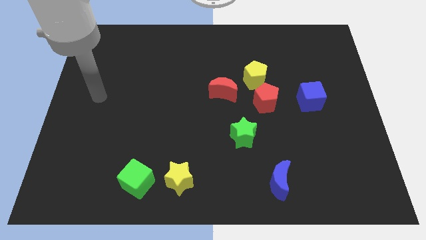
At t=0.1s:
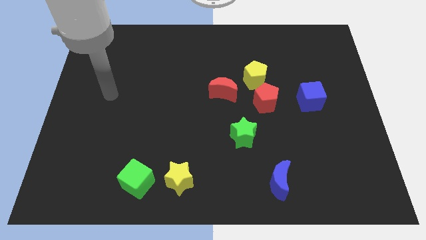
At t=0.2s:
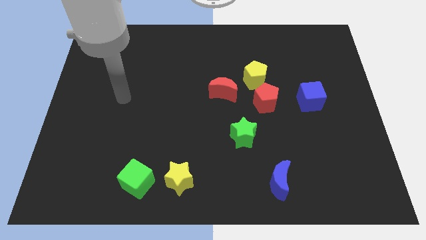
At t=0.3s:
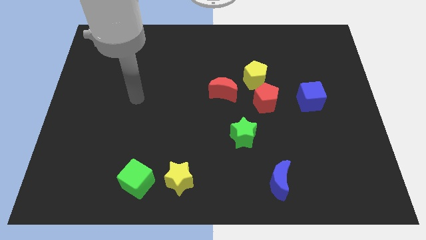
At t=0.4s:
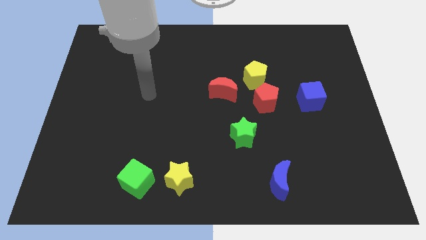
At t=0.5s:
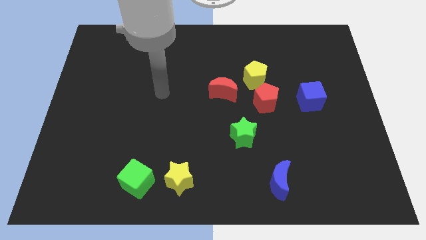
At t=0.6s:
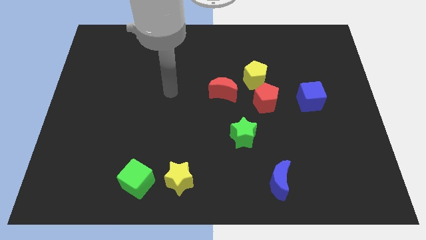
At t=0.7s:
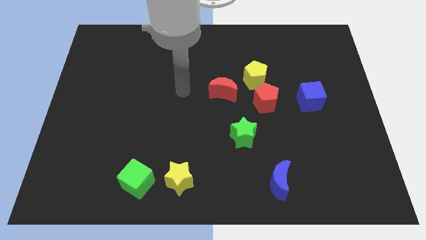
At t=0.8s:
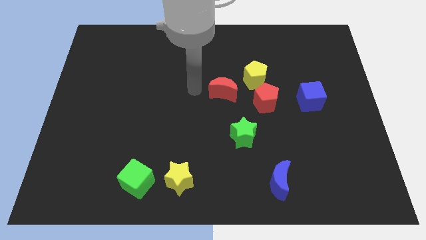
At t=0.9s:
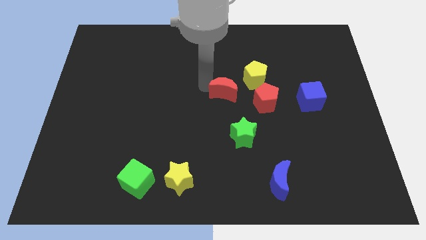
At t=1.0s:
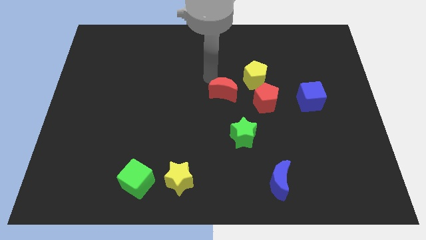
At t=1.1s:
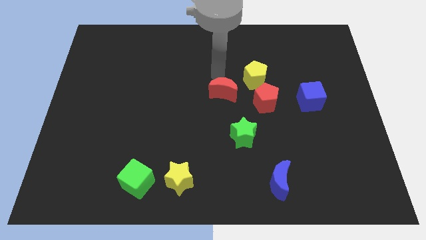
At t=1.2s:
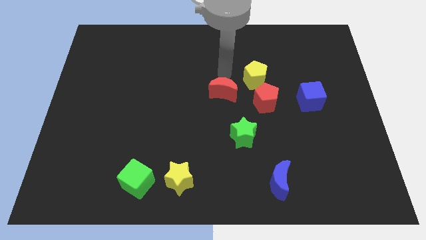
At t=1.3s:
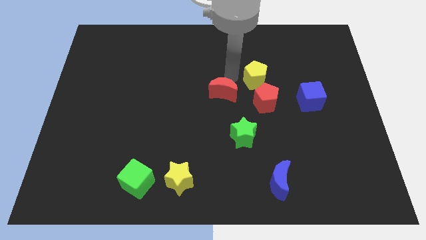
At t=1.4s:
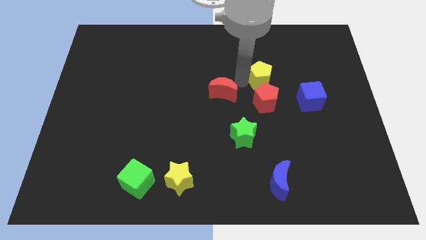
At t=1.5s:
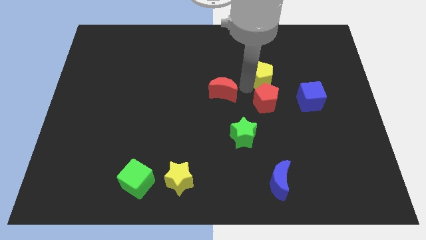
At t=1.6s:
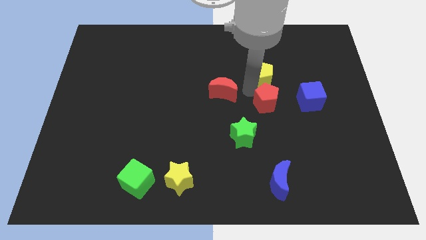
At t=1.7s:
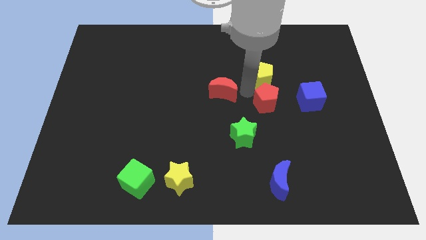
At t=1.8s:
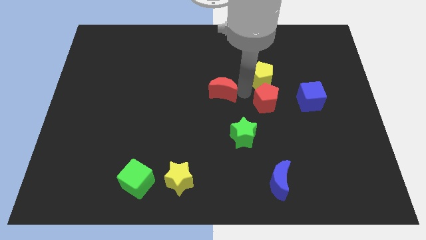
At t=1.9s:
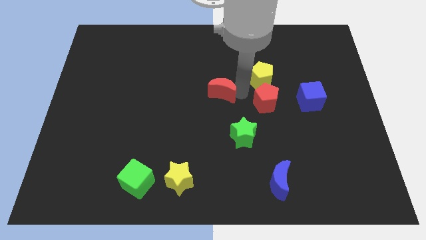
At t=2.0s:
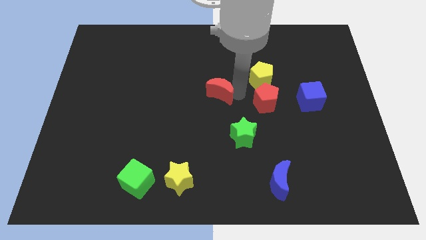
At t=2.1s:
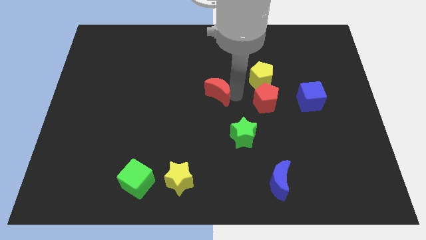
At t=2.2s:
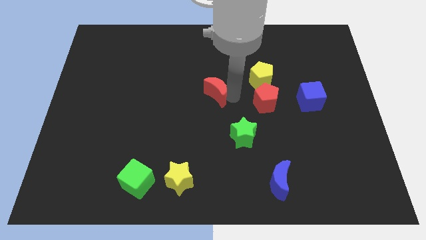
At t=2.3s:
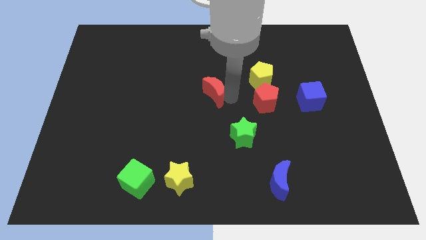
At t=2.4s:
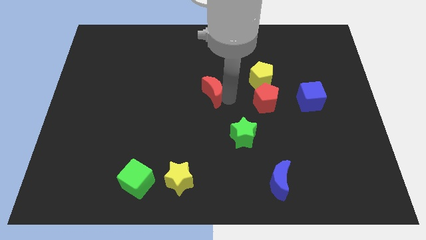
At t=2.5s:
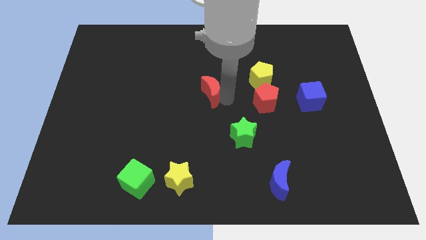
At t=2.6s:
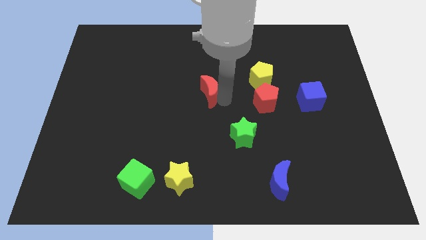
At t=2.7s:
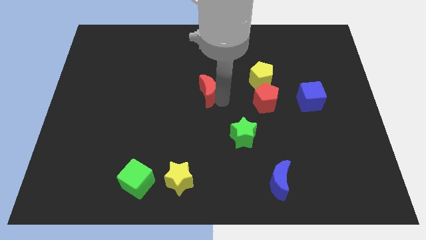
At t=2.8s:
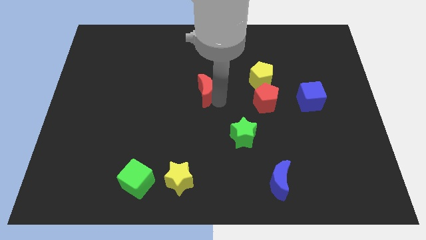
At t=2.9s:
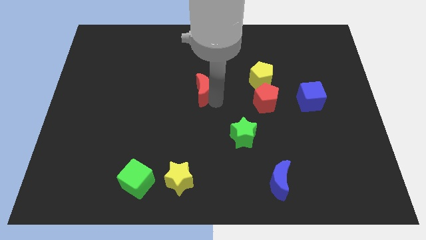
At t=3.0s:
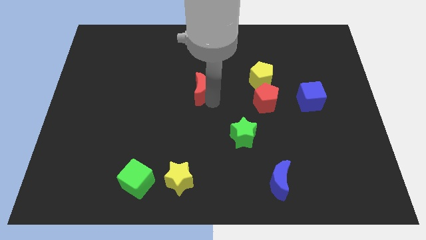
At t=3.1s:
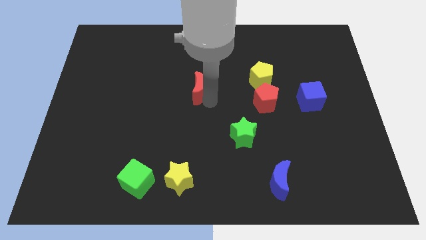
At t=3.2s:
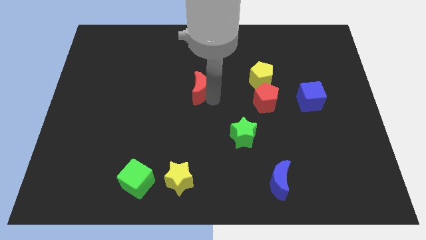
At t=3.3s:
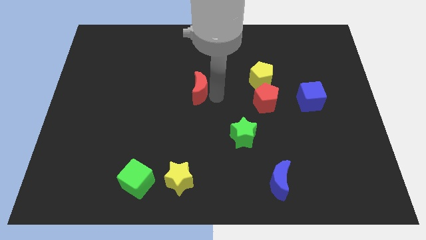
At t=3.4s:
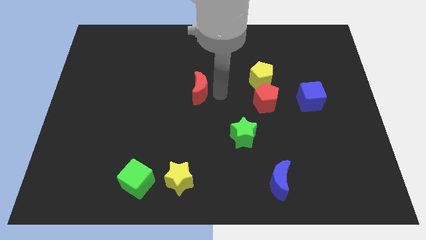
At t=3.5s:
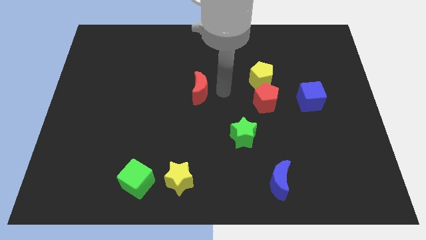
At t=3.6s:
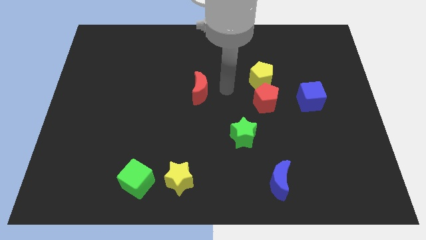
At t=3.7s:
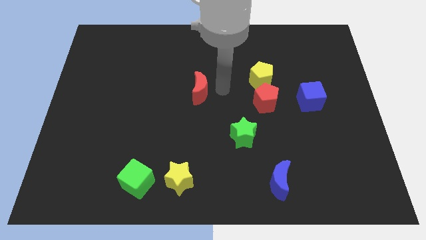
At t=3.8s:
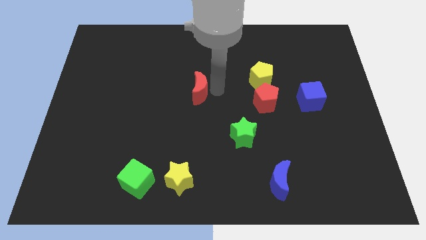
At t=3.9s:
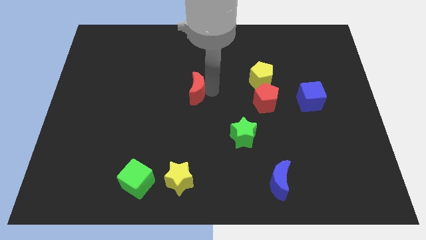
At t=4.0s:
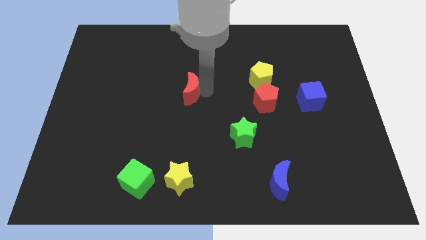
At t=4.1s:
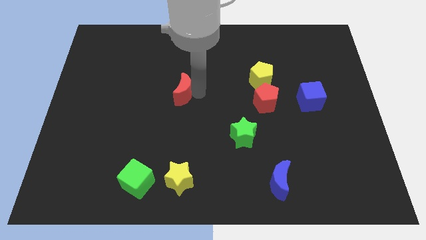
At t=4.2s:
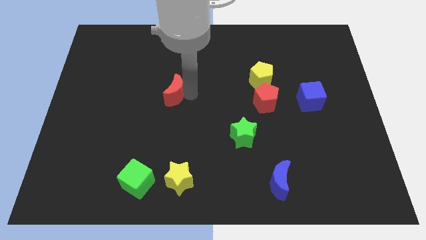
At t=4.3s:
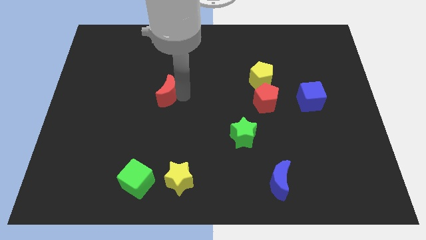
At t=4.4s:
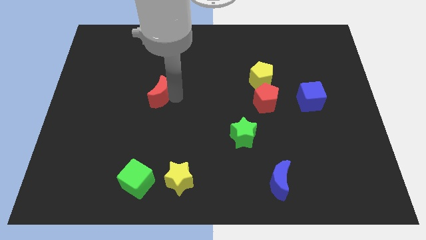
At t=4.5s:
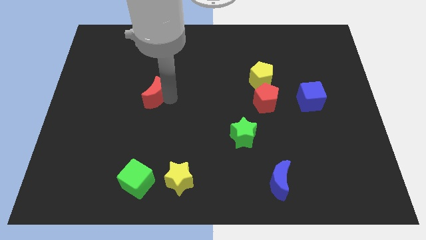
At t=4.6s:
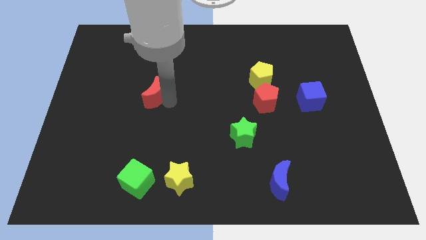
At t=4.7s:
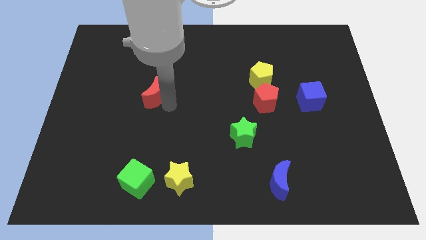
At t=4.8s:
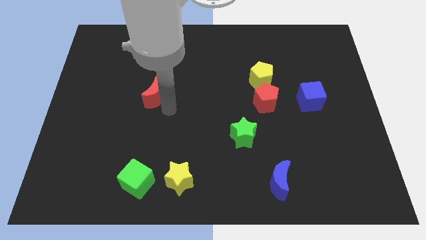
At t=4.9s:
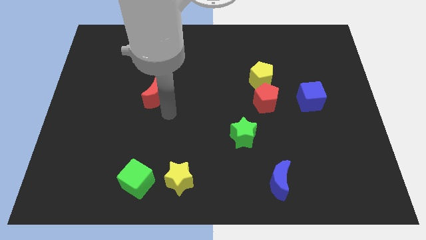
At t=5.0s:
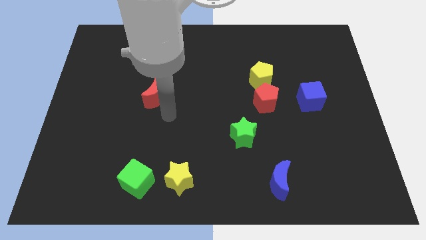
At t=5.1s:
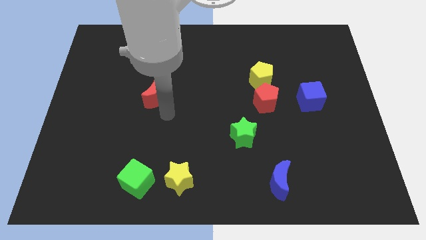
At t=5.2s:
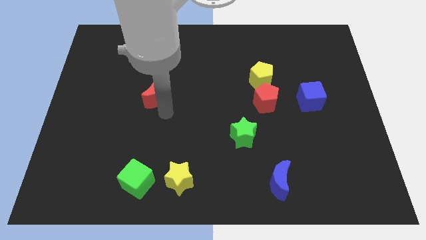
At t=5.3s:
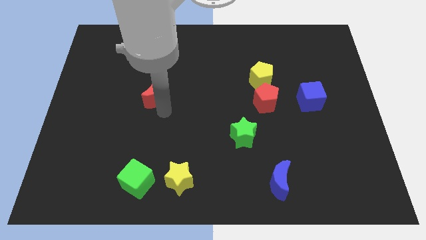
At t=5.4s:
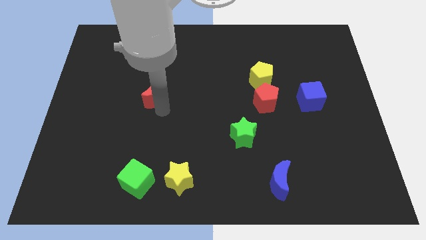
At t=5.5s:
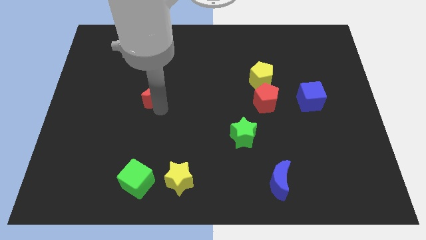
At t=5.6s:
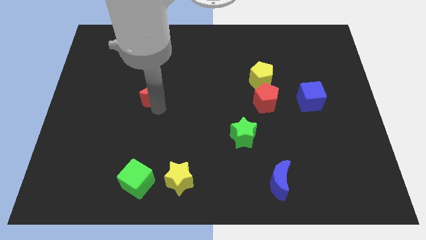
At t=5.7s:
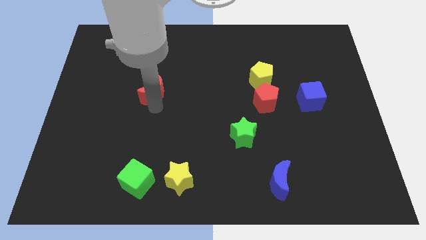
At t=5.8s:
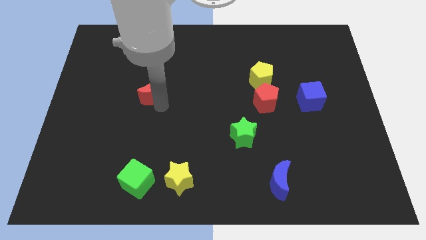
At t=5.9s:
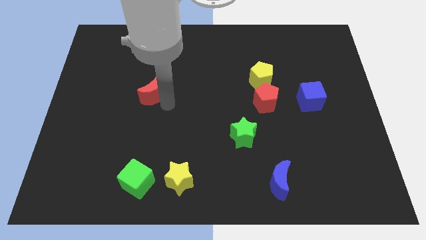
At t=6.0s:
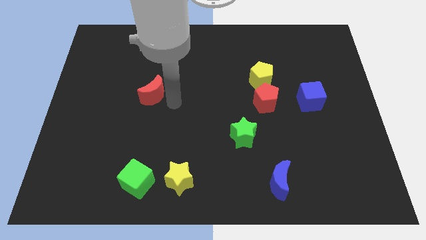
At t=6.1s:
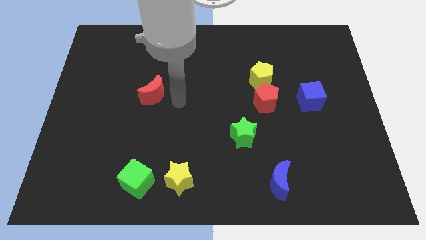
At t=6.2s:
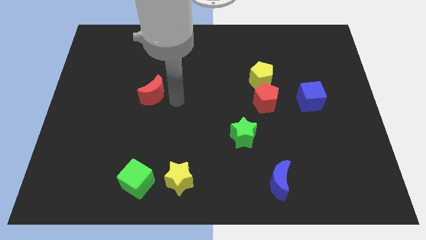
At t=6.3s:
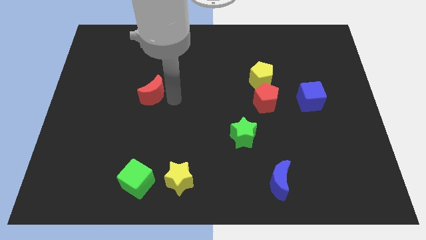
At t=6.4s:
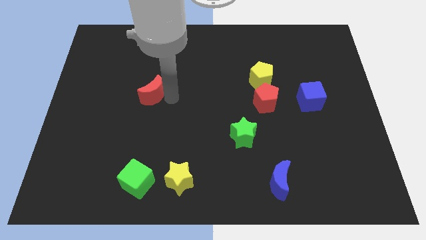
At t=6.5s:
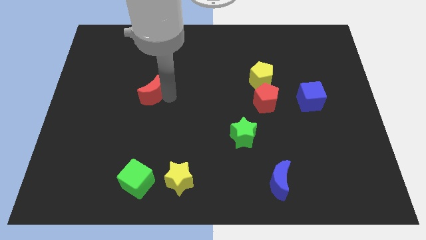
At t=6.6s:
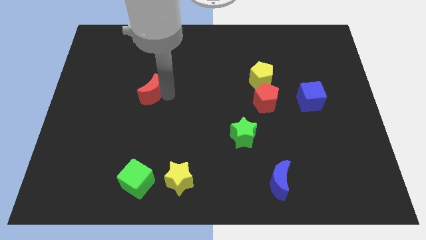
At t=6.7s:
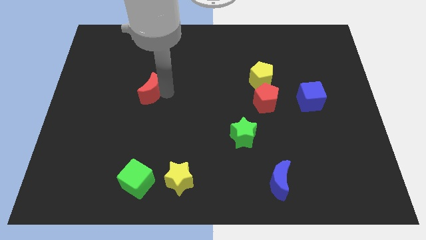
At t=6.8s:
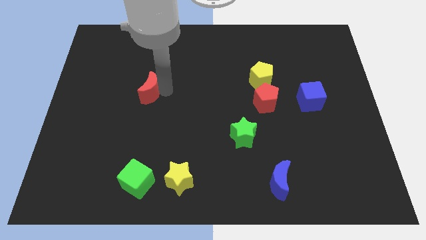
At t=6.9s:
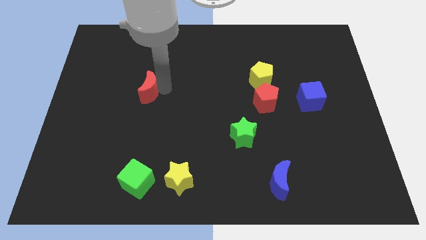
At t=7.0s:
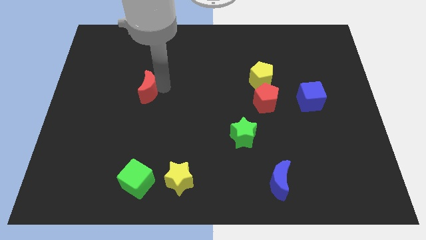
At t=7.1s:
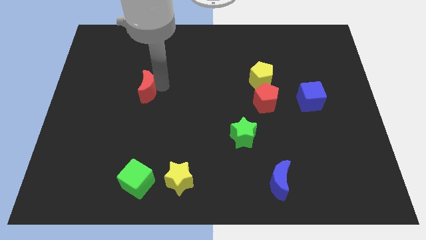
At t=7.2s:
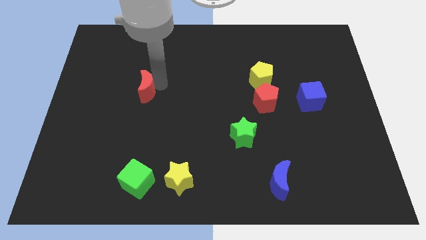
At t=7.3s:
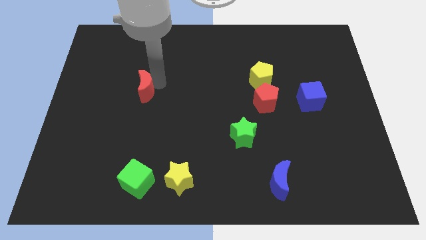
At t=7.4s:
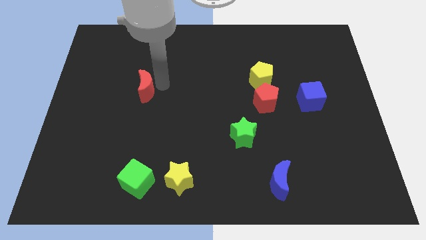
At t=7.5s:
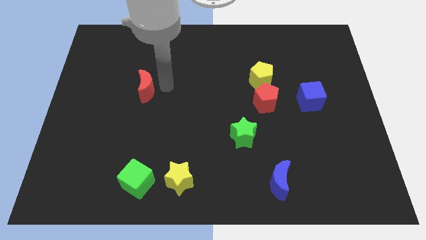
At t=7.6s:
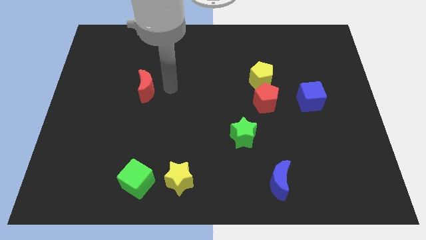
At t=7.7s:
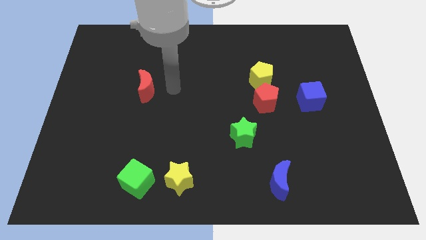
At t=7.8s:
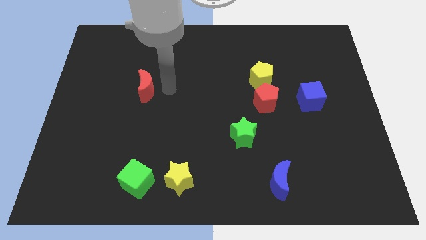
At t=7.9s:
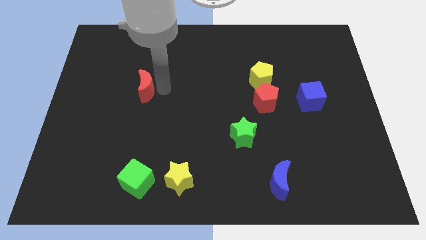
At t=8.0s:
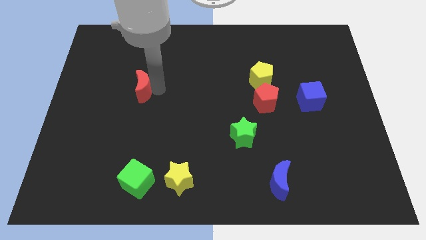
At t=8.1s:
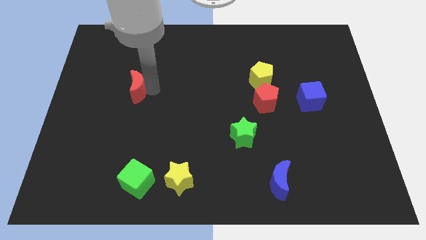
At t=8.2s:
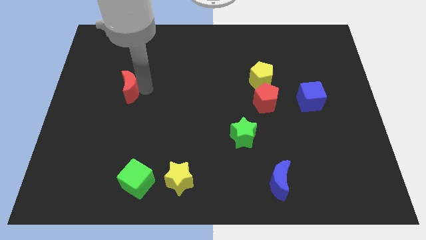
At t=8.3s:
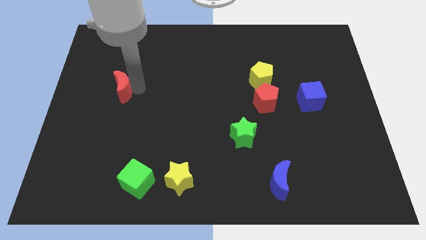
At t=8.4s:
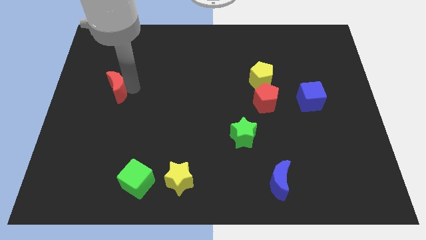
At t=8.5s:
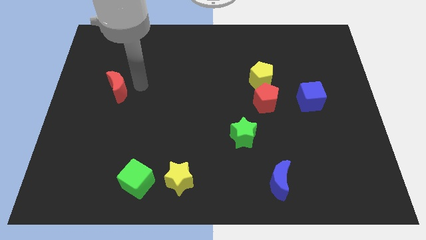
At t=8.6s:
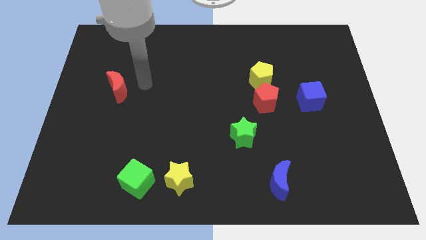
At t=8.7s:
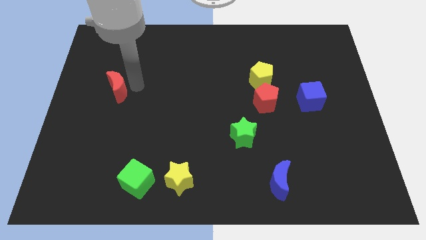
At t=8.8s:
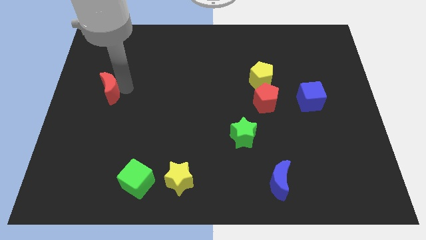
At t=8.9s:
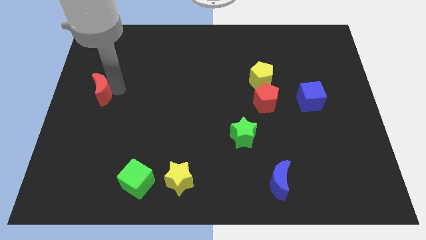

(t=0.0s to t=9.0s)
put the red moon to the left side of the board
